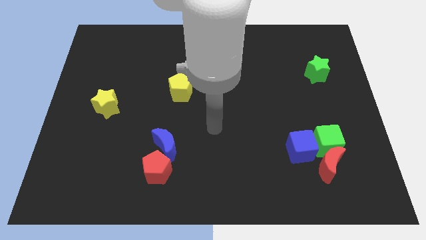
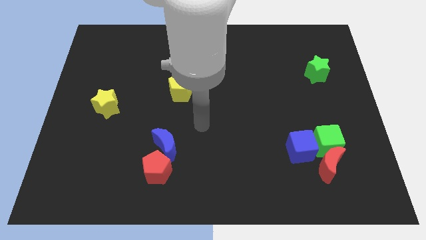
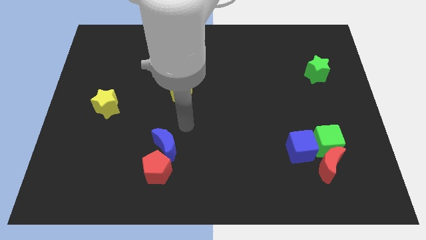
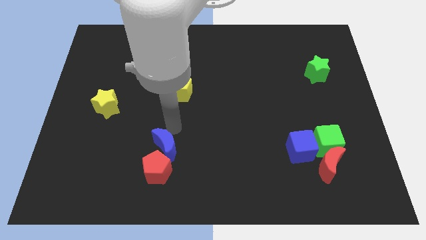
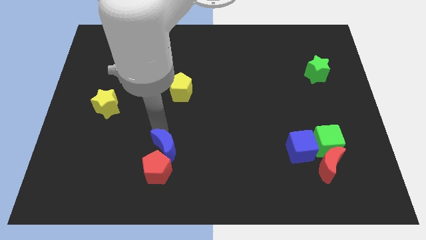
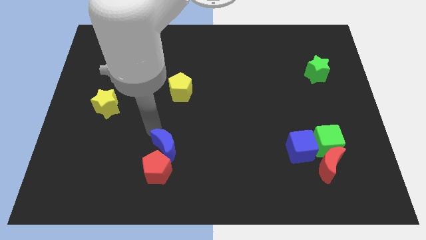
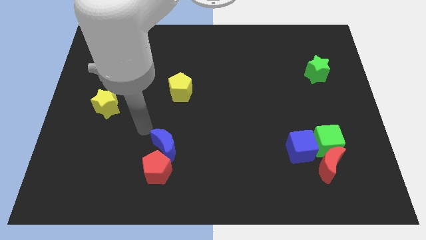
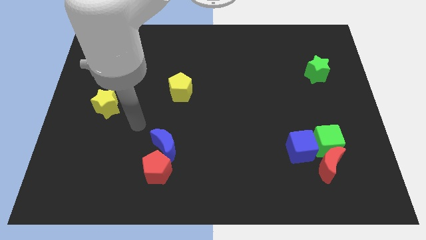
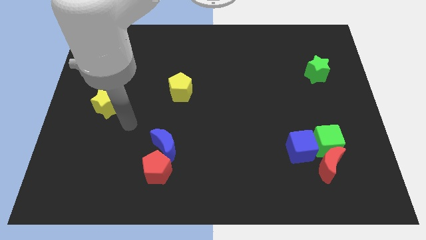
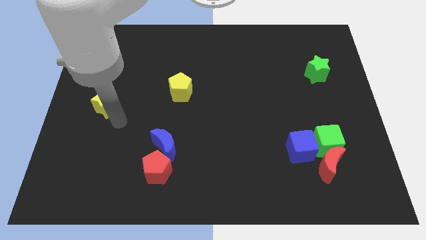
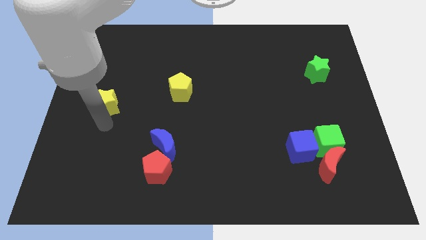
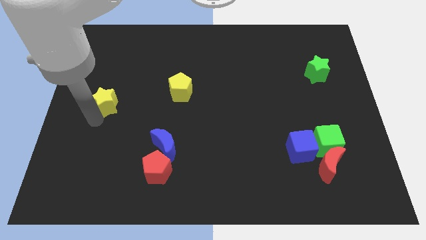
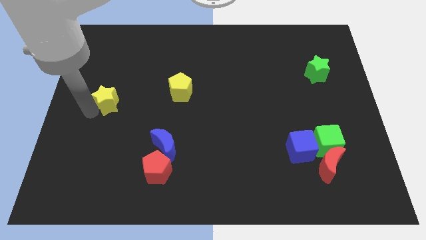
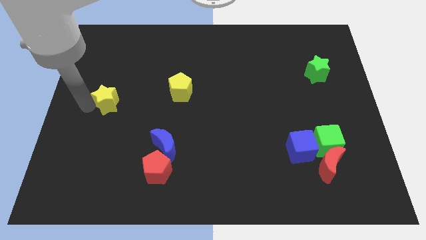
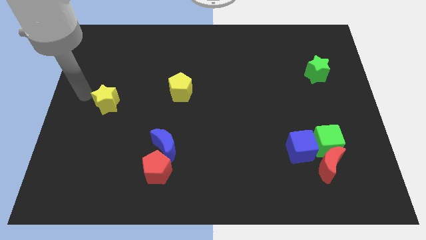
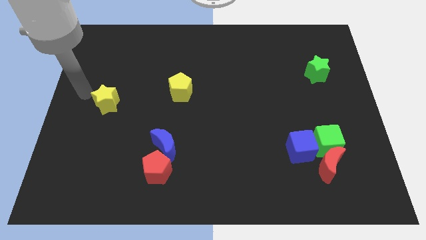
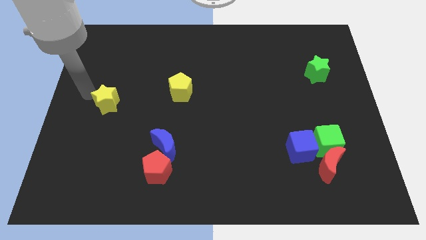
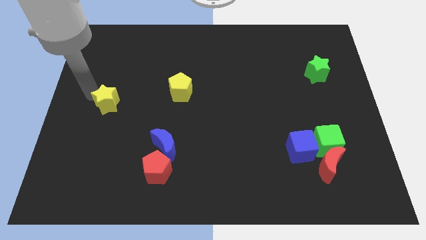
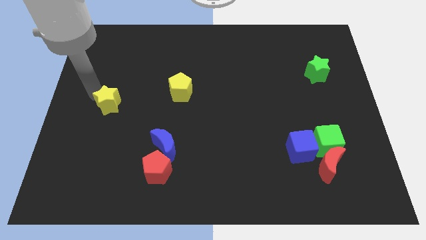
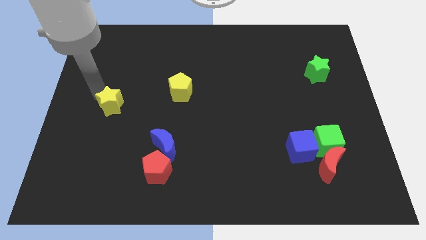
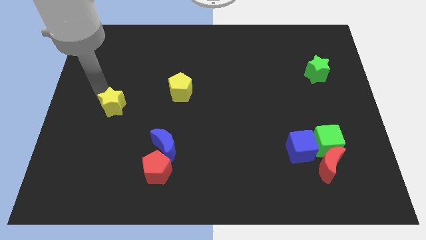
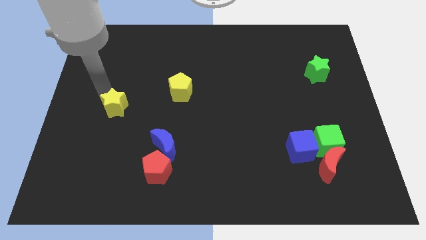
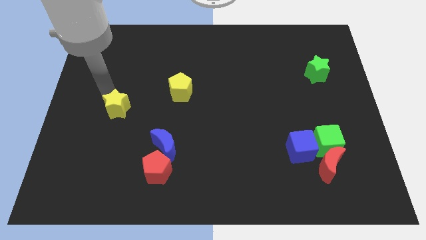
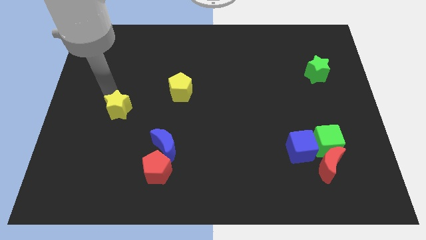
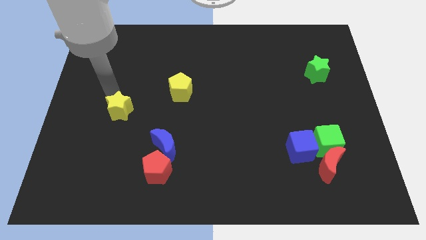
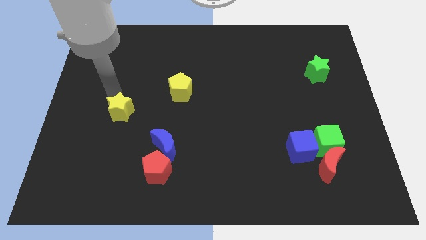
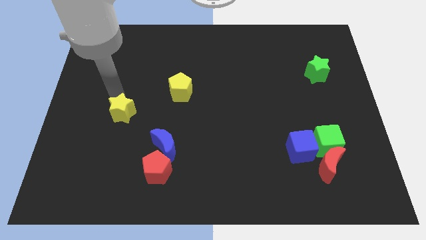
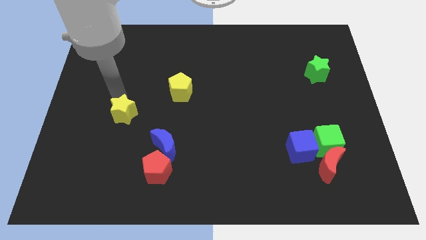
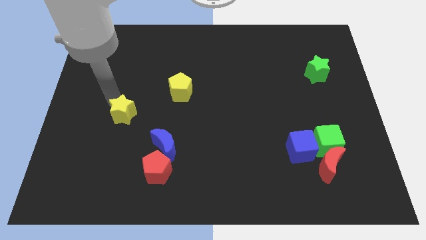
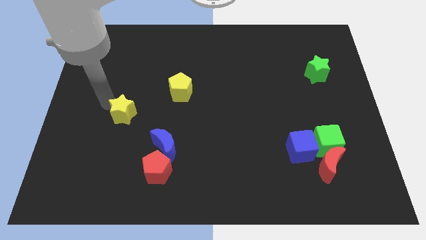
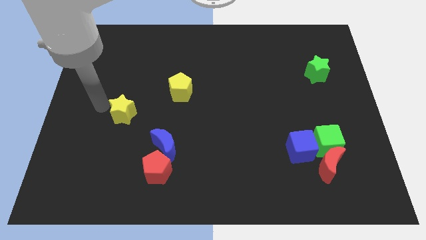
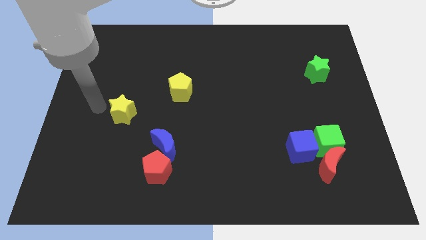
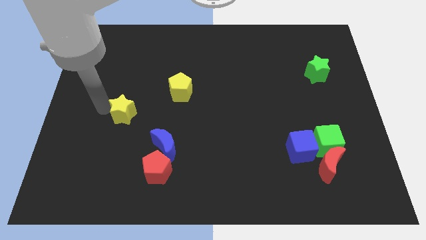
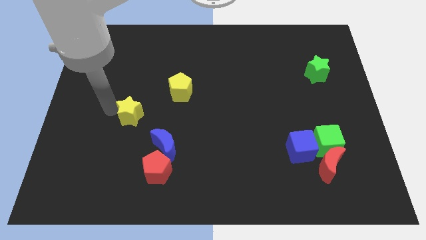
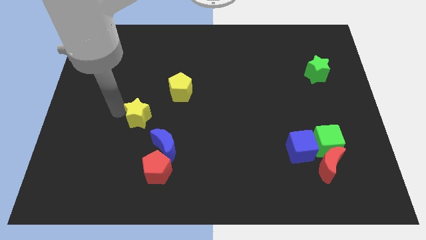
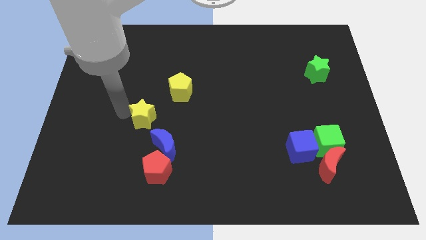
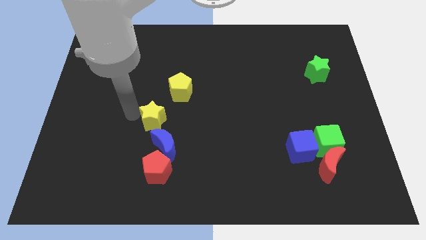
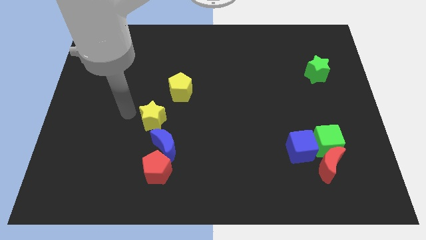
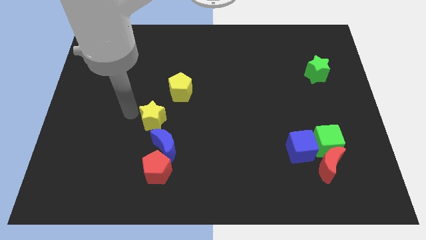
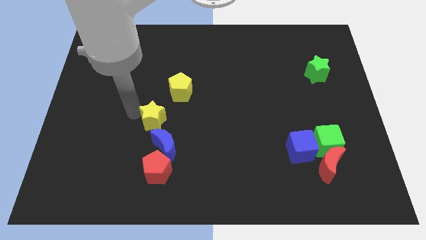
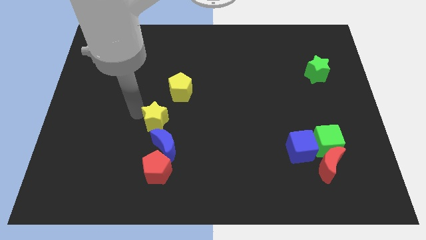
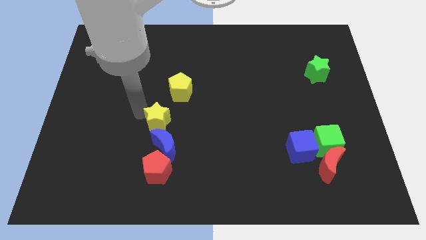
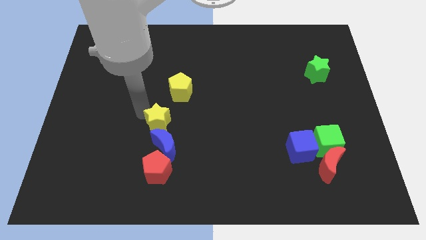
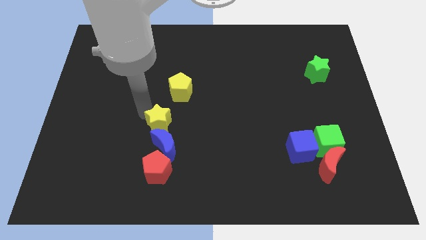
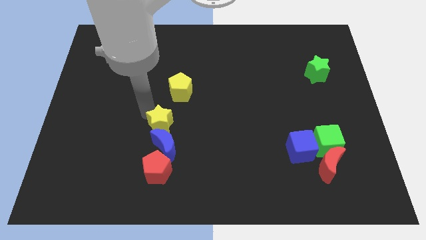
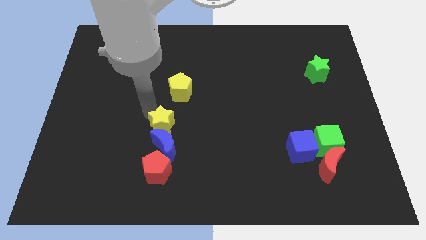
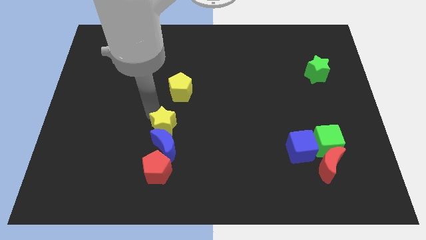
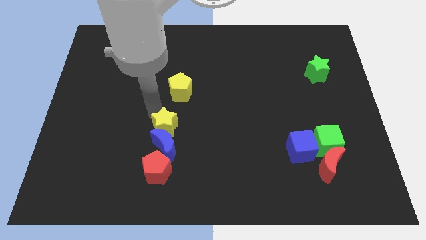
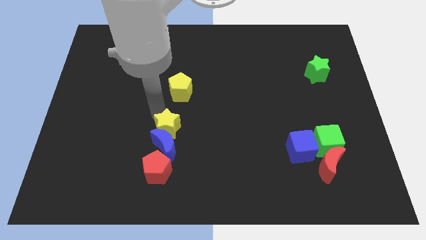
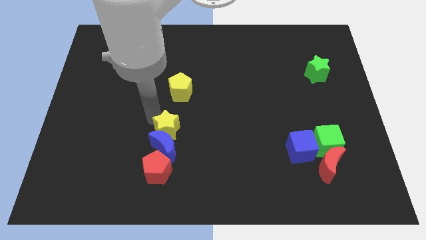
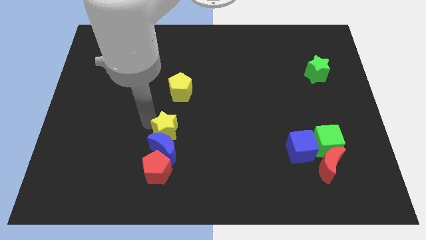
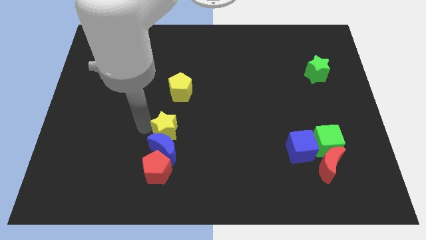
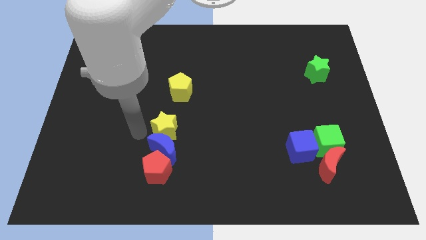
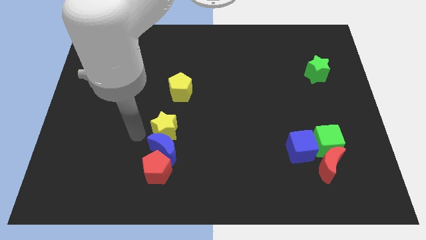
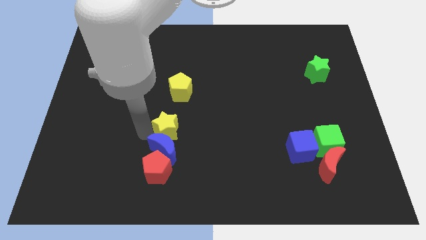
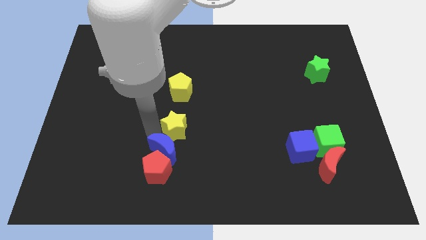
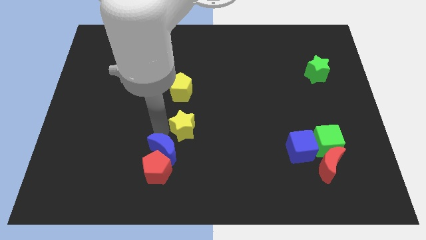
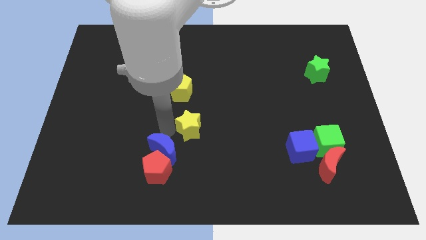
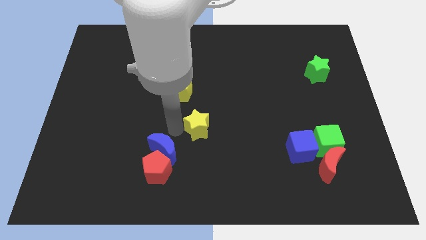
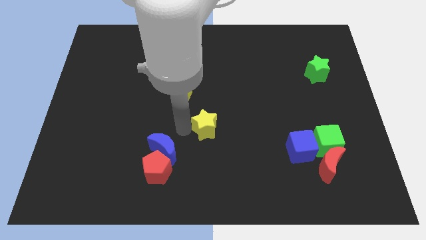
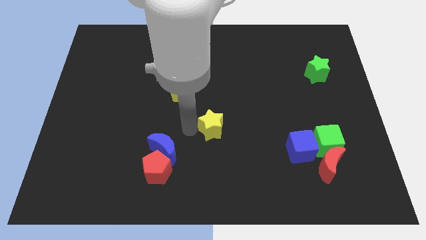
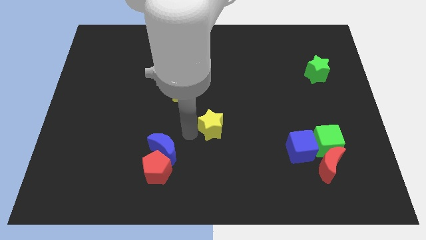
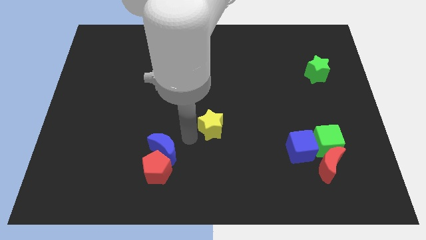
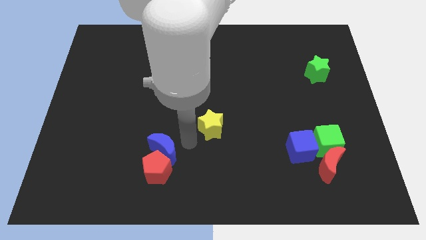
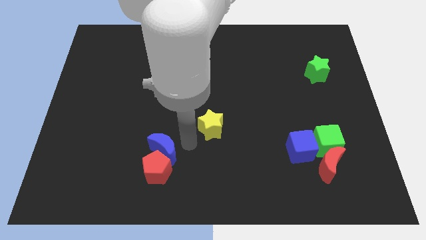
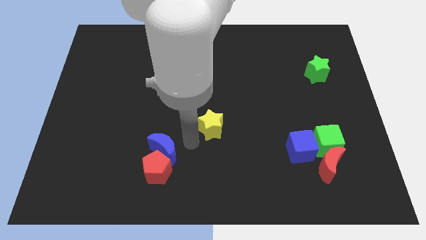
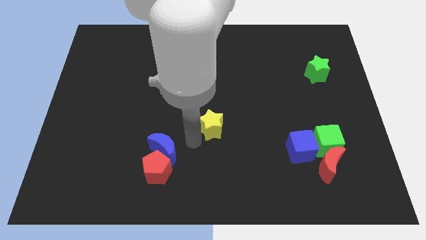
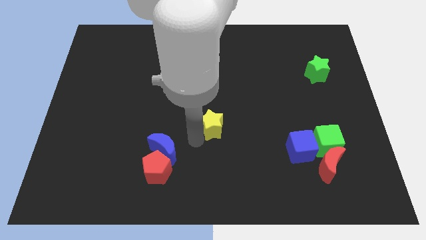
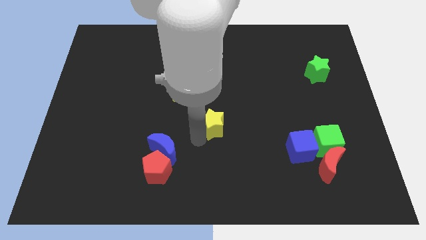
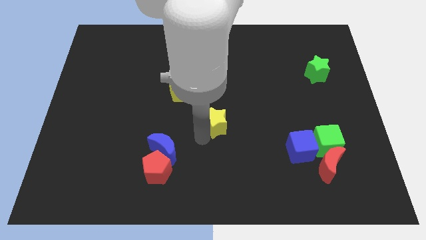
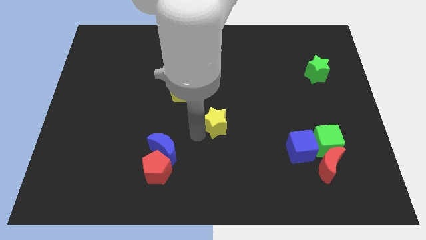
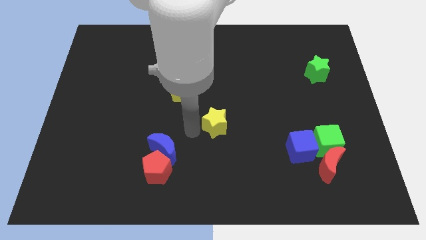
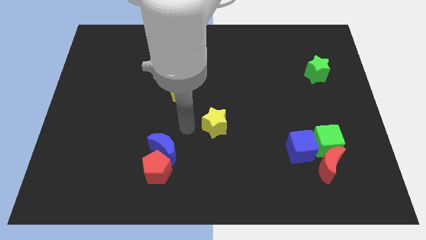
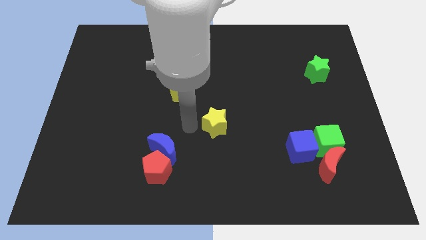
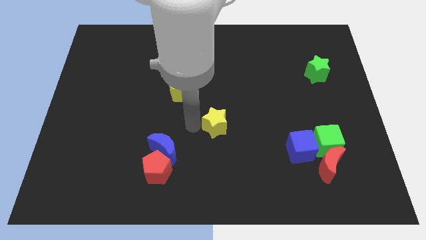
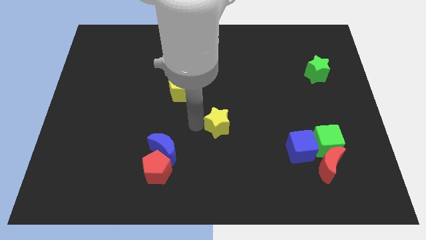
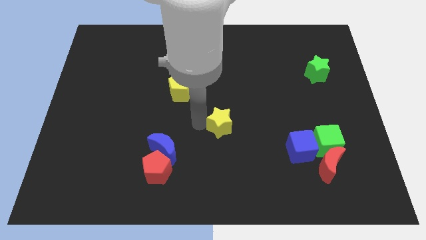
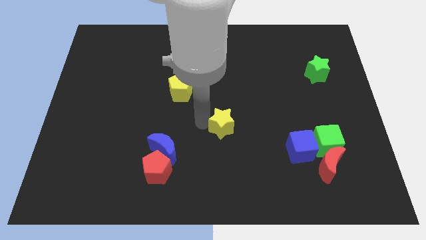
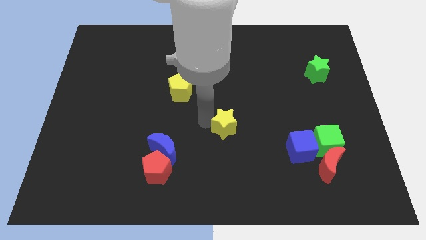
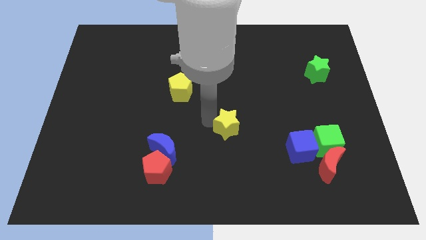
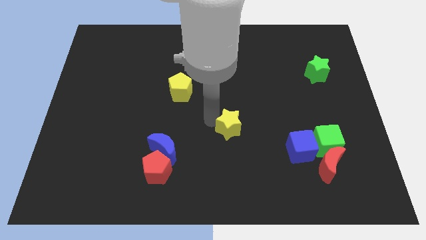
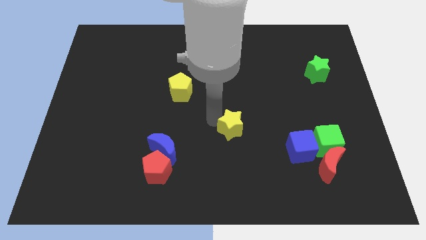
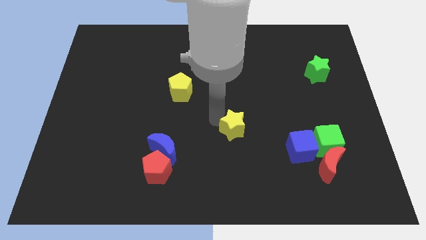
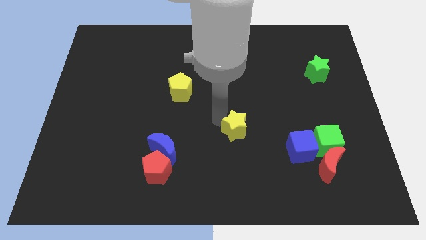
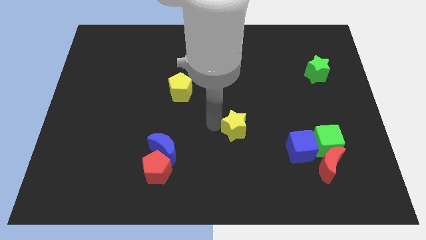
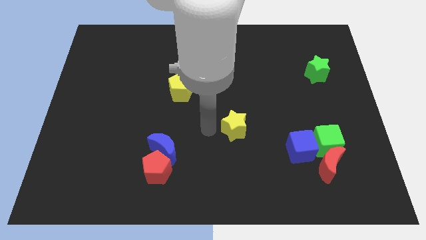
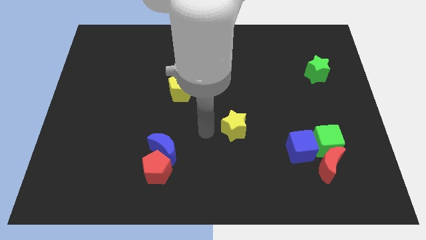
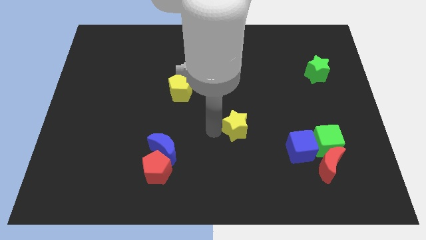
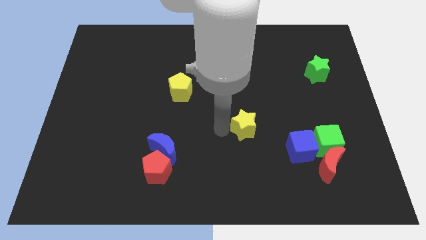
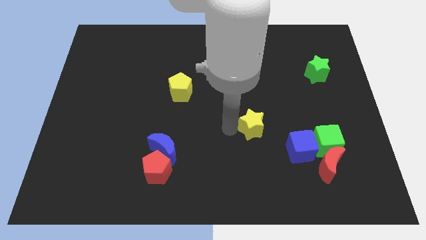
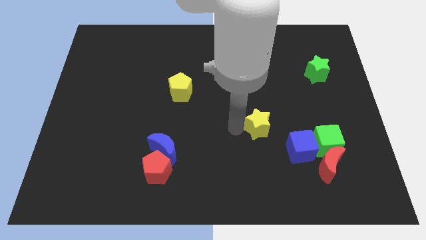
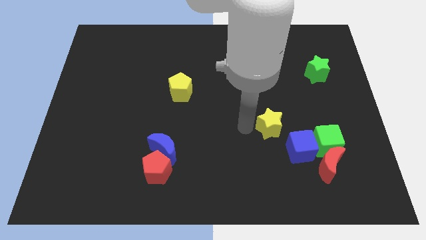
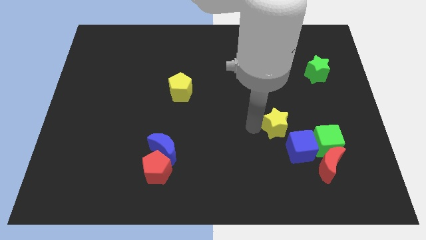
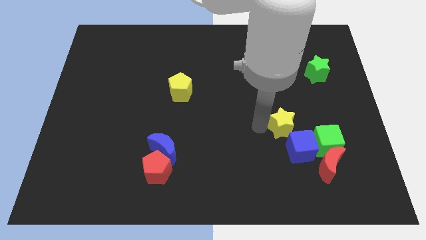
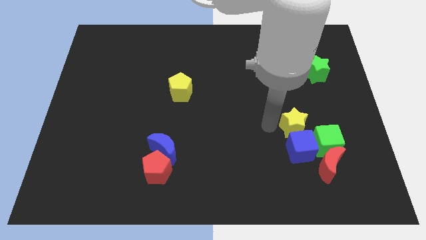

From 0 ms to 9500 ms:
push the yellow star to the top right side of the blue cube
